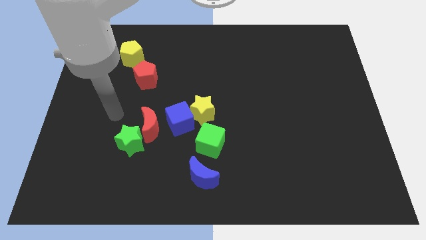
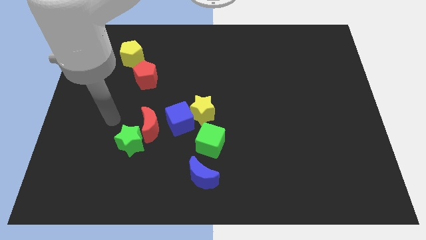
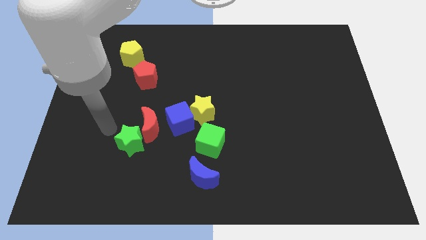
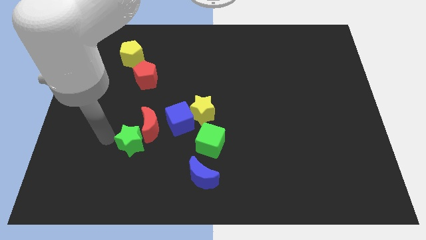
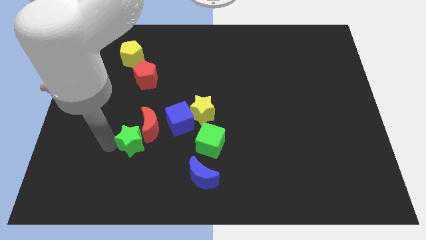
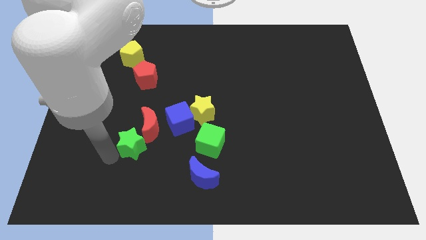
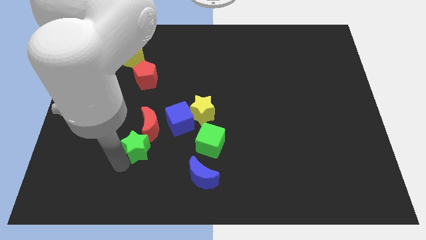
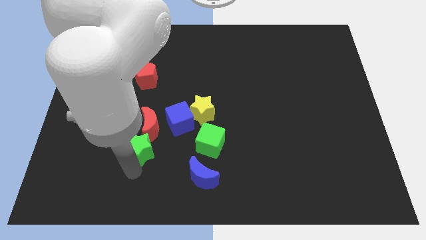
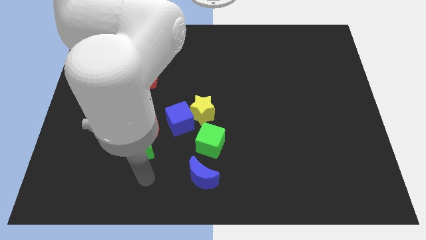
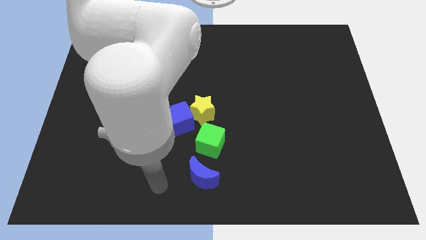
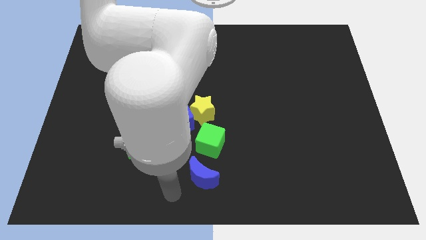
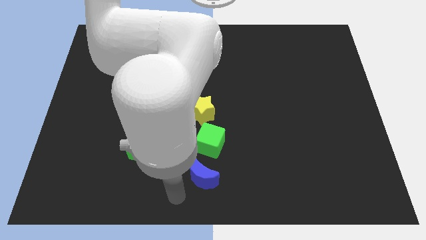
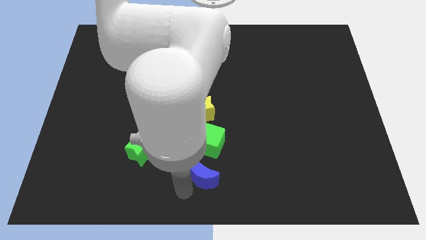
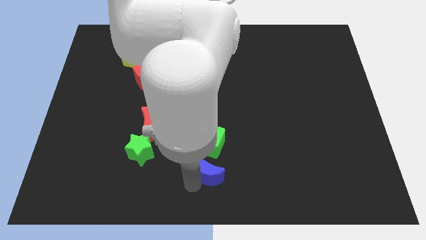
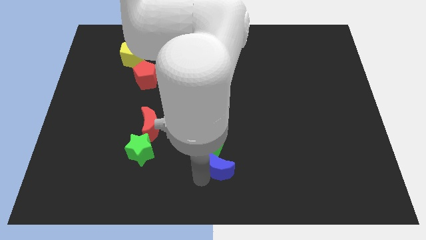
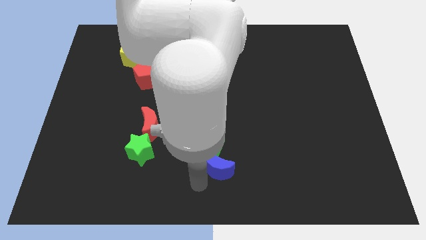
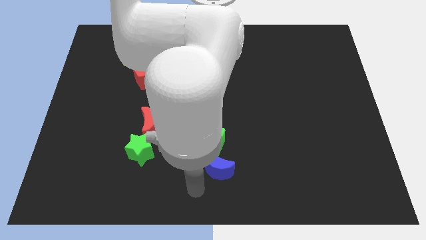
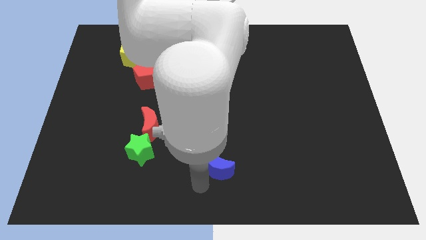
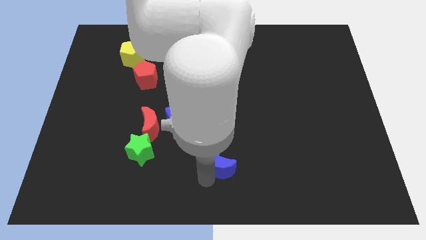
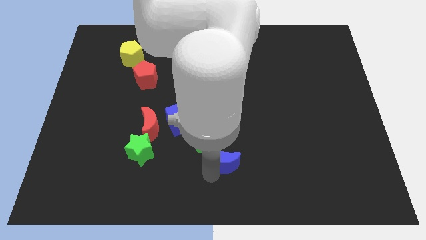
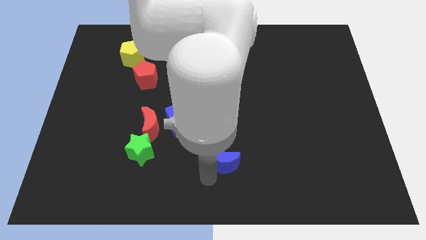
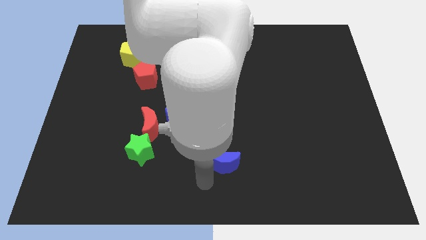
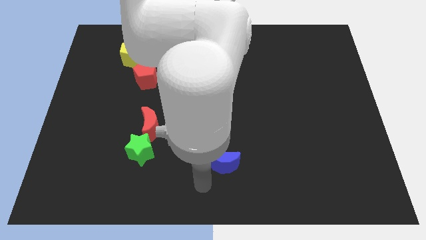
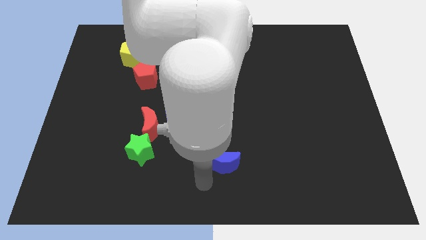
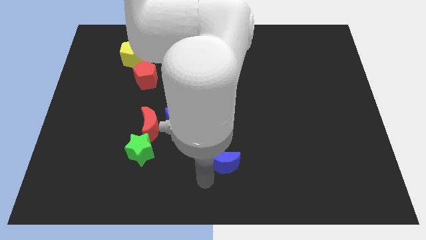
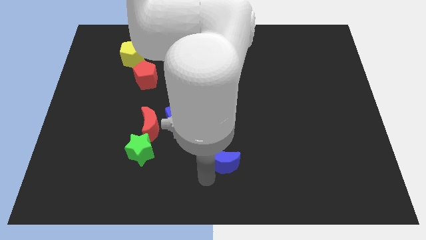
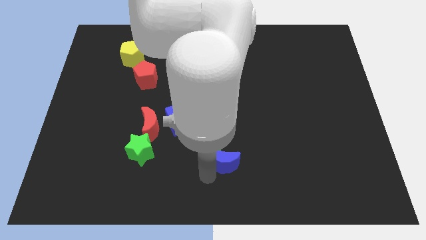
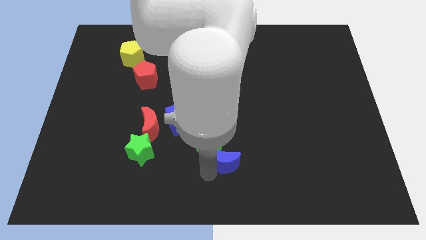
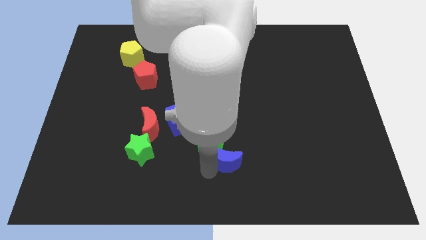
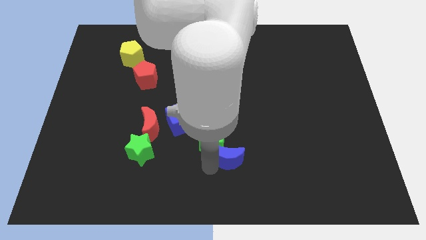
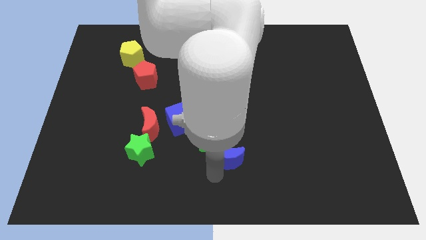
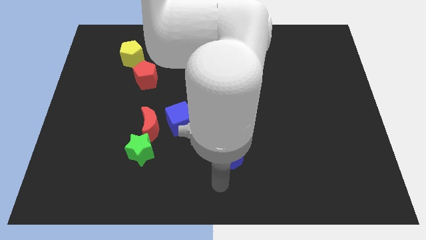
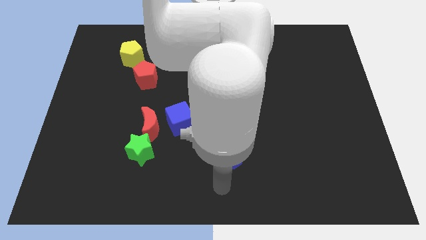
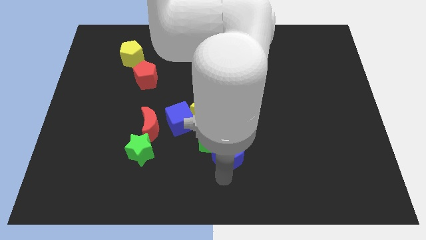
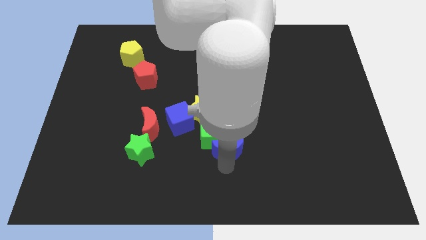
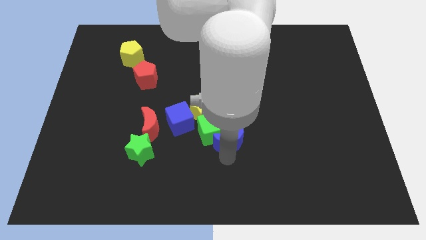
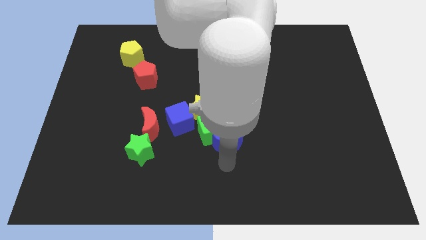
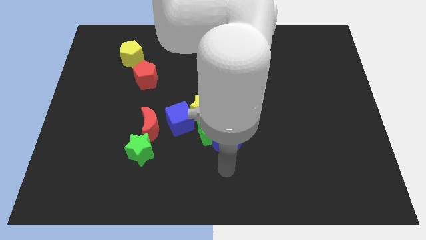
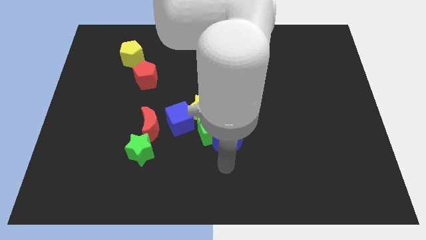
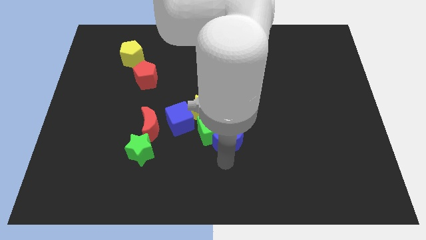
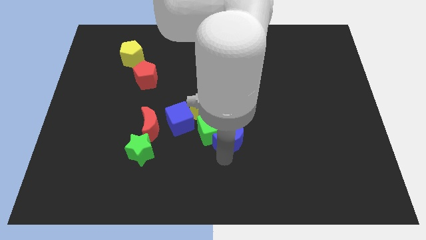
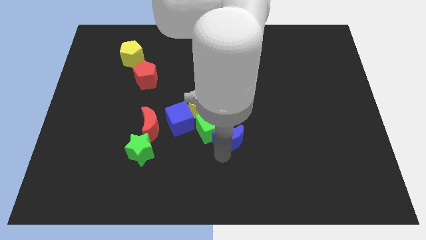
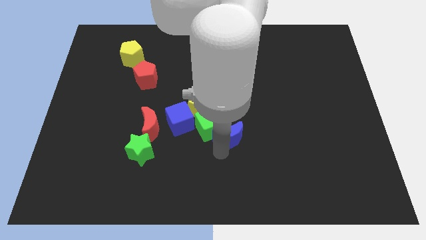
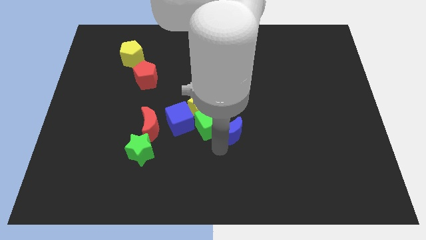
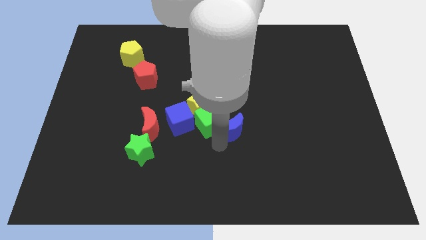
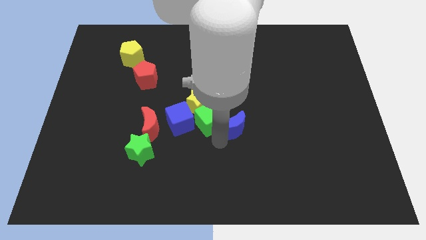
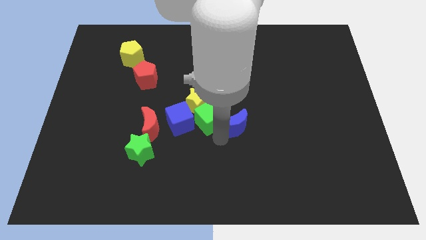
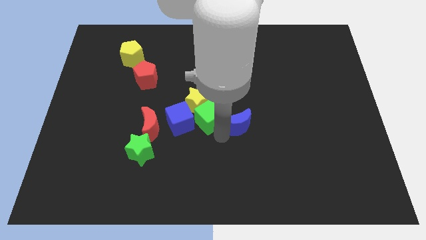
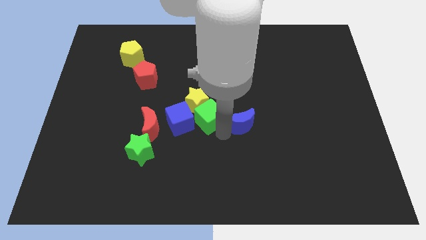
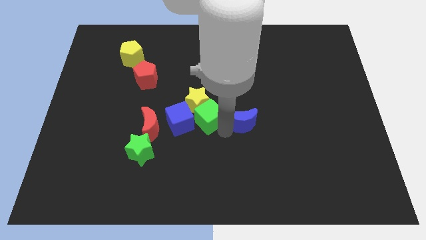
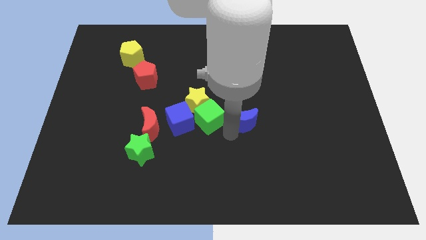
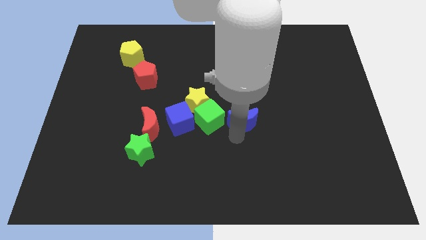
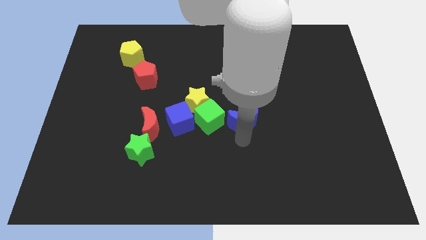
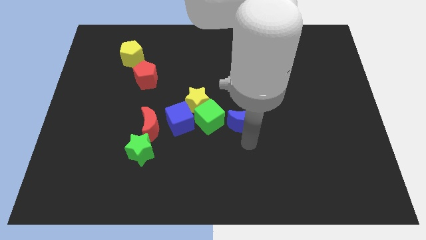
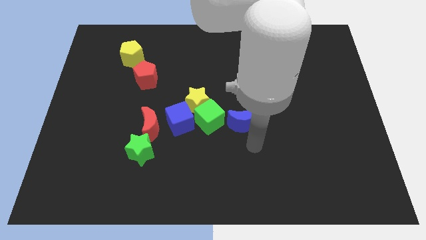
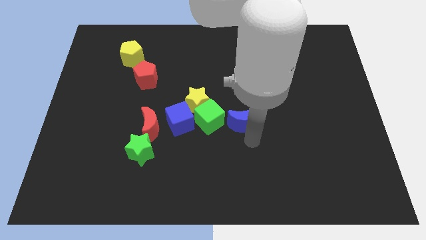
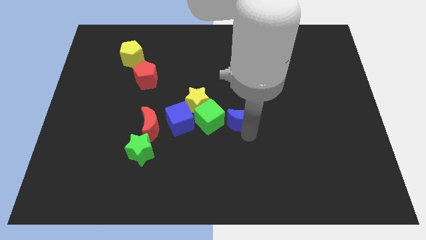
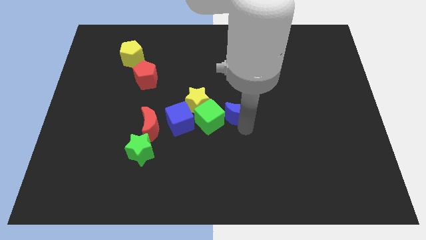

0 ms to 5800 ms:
move the blue moon to the top right of the green cube

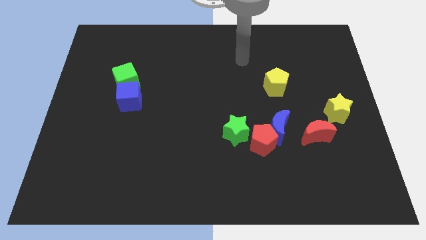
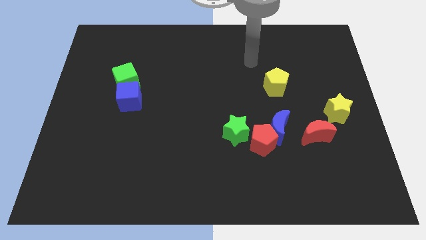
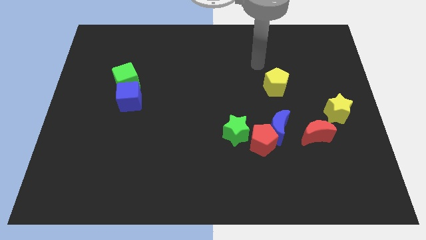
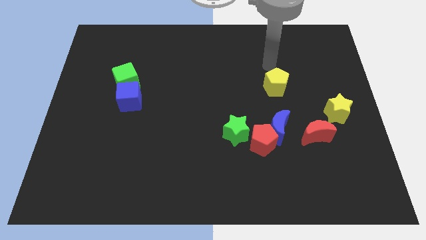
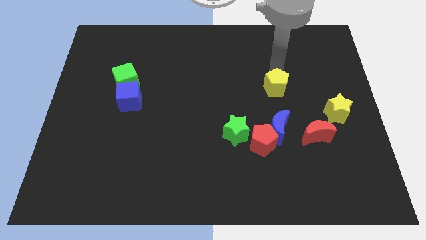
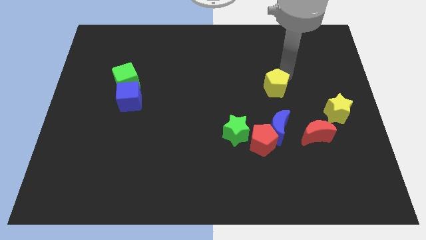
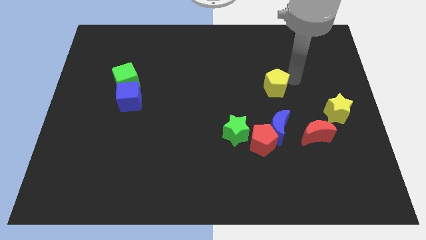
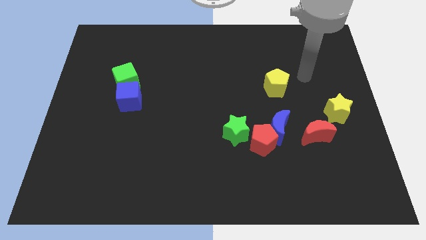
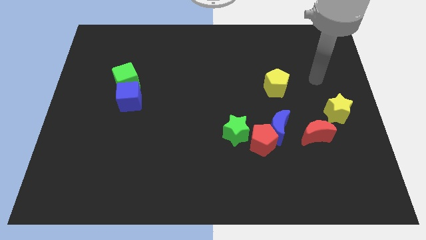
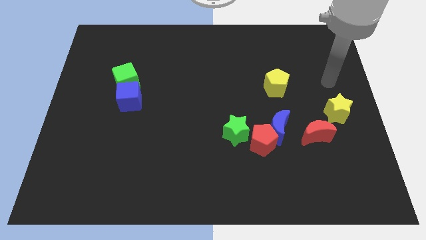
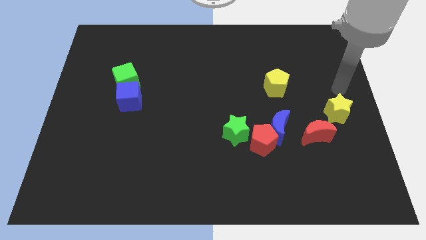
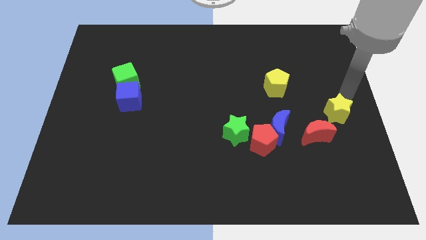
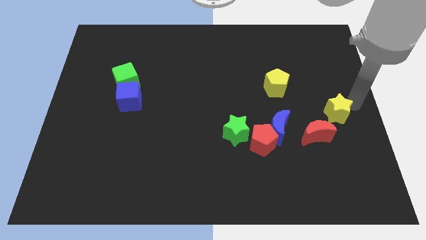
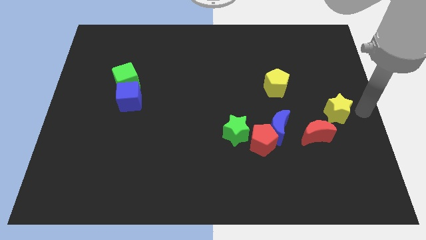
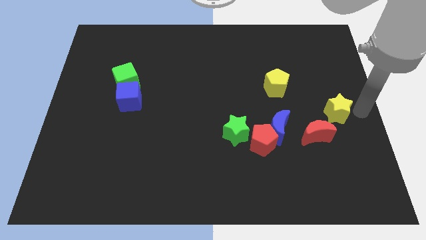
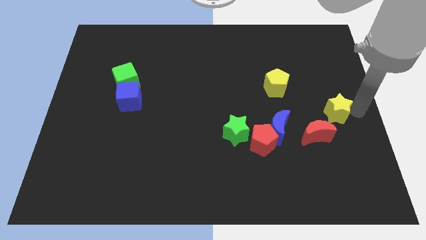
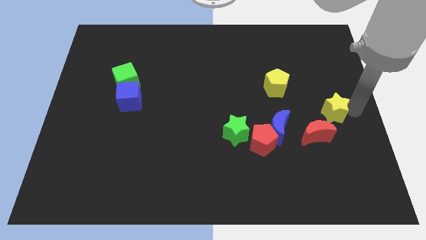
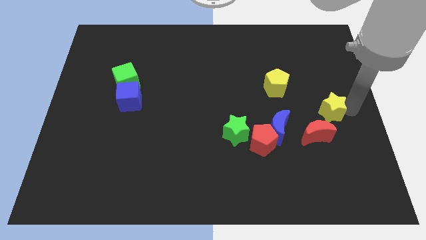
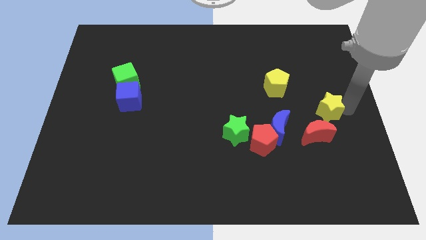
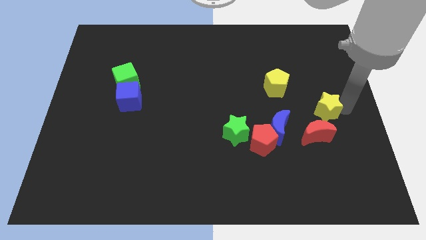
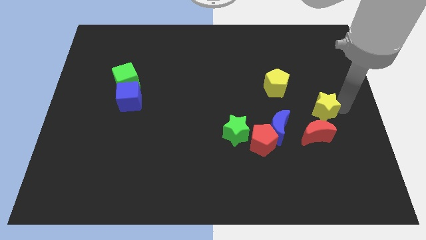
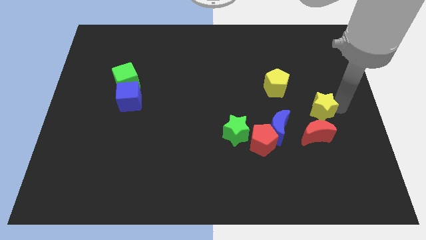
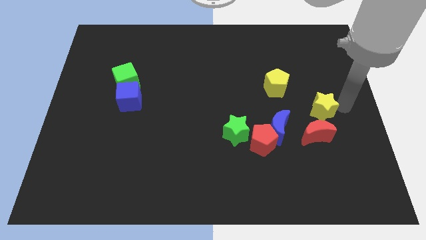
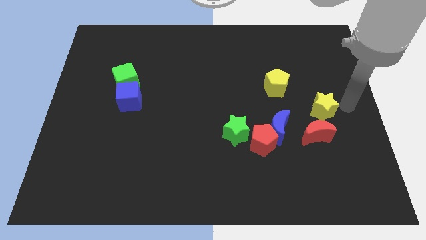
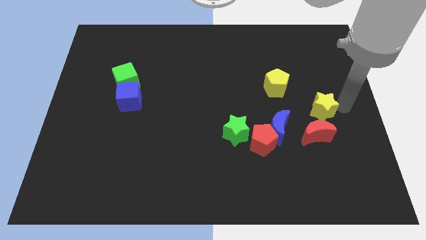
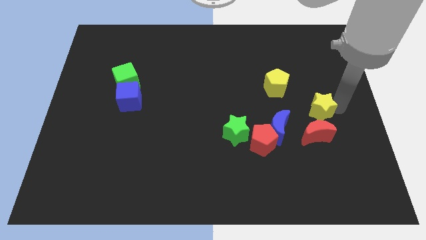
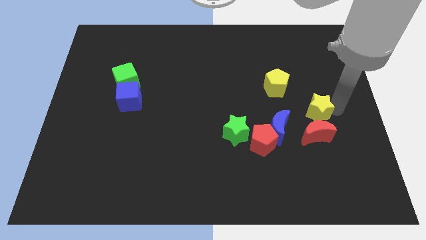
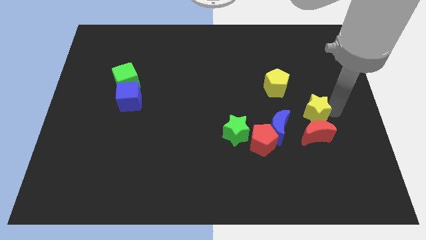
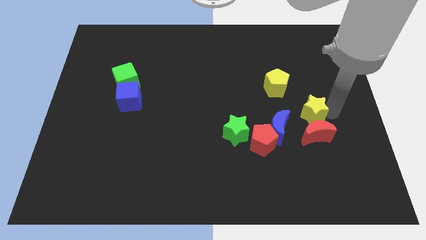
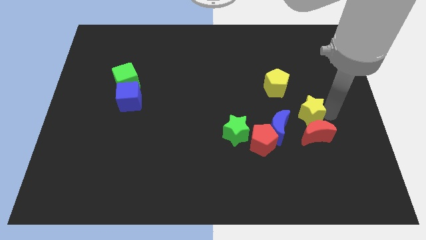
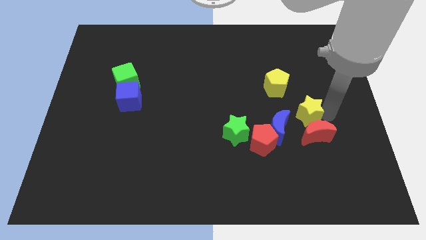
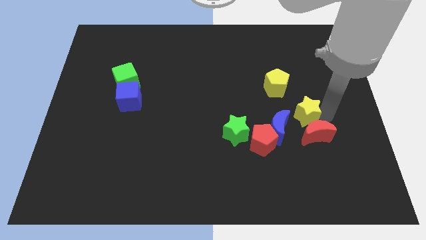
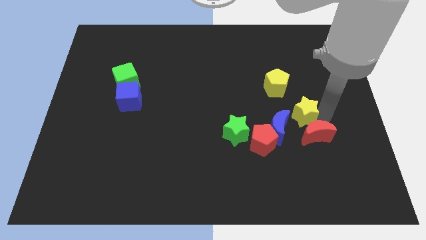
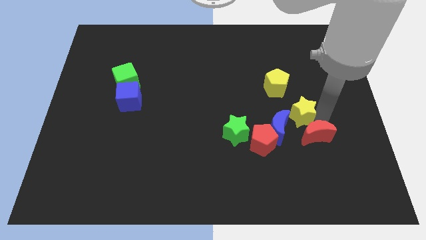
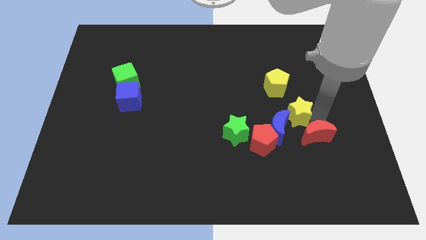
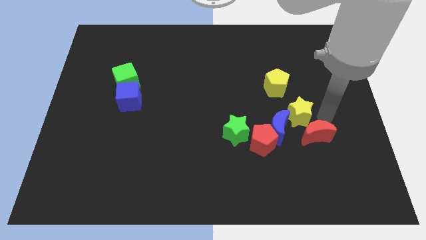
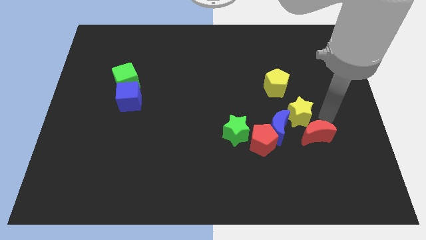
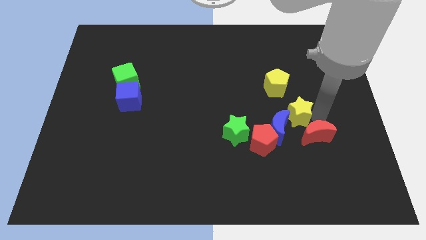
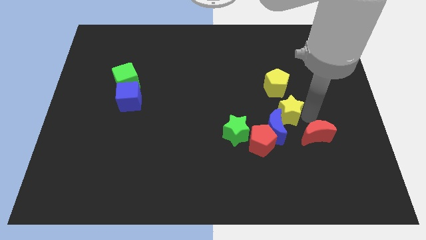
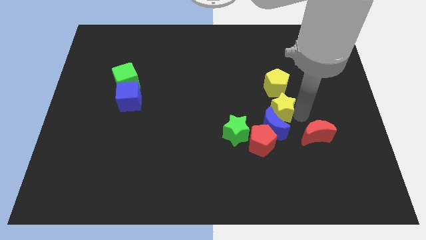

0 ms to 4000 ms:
put the yellow star diagonally up and to the right of the green star
